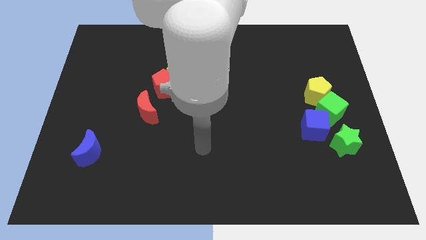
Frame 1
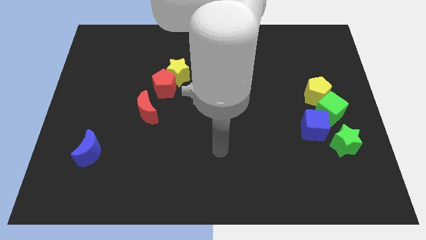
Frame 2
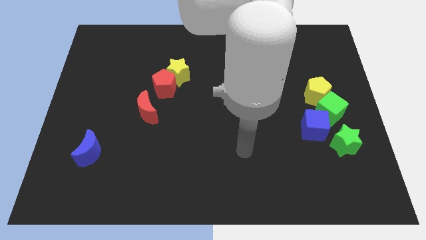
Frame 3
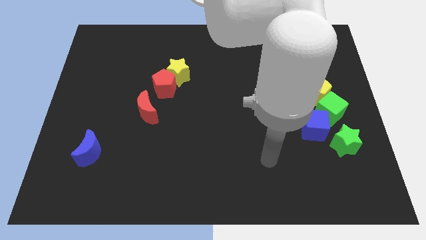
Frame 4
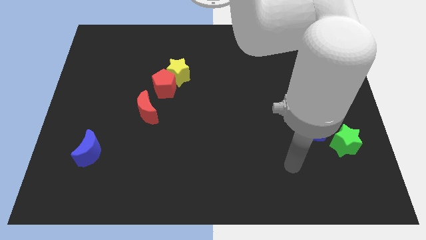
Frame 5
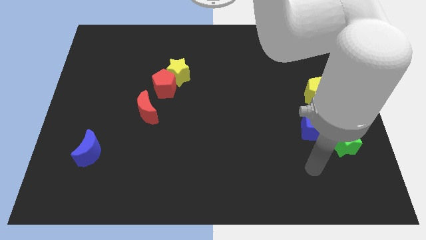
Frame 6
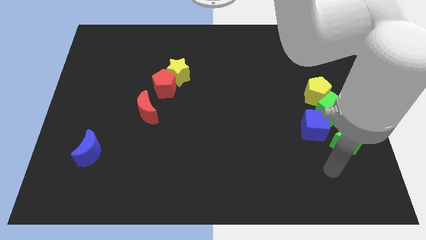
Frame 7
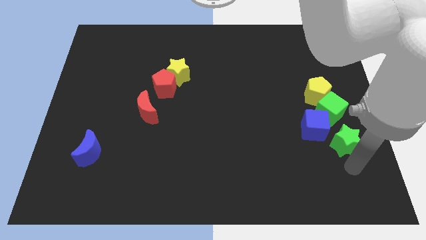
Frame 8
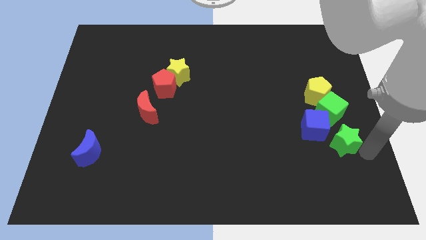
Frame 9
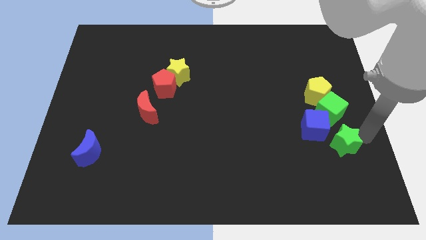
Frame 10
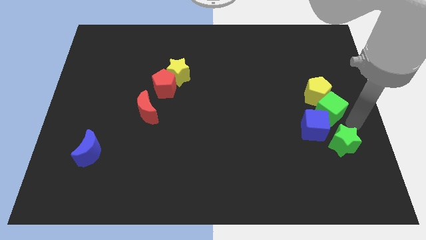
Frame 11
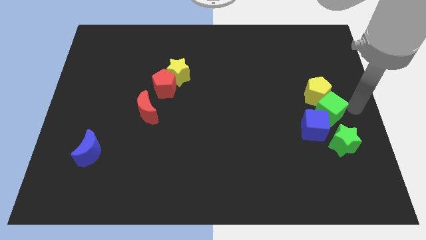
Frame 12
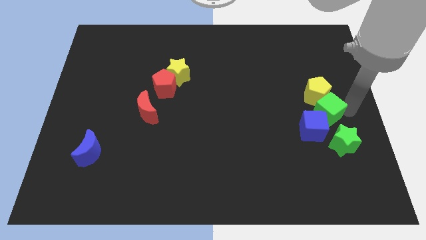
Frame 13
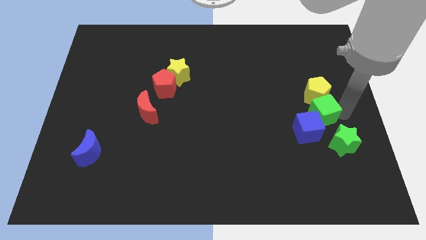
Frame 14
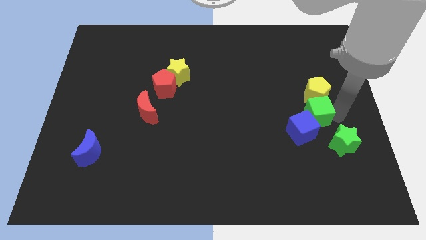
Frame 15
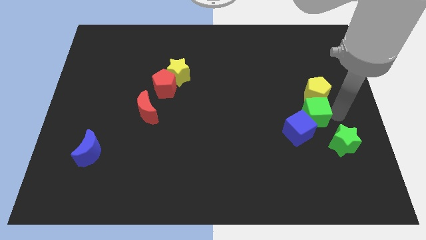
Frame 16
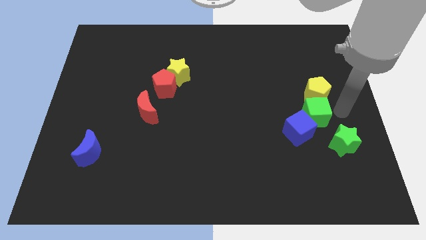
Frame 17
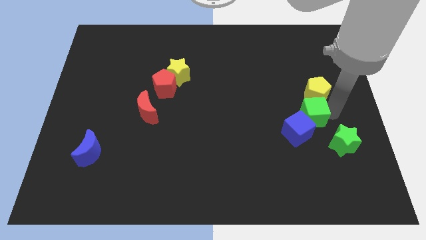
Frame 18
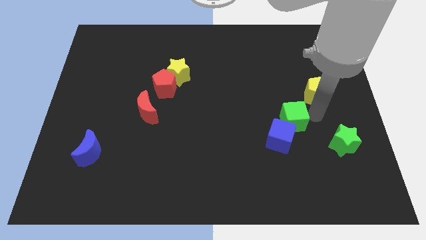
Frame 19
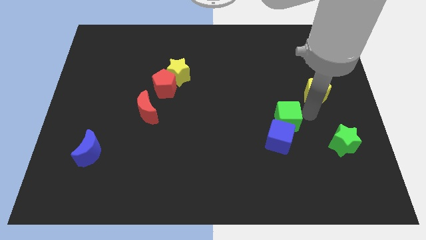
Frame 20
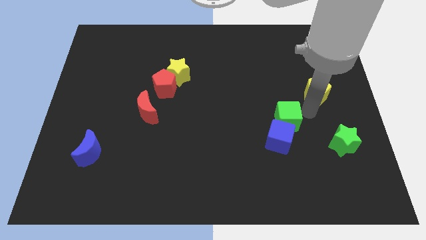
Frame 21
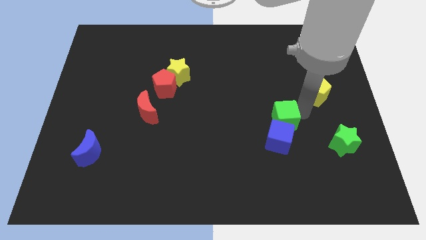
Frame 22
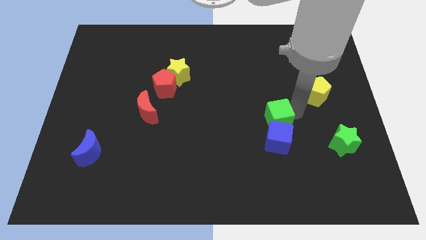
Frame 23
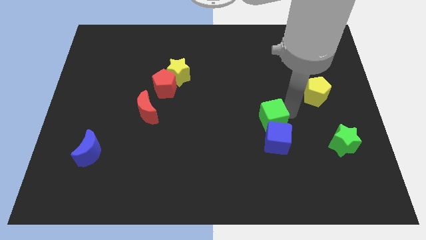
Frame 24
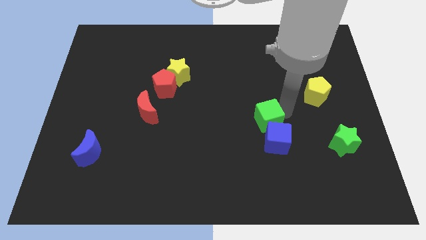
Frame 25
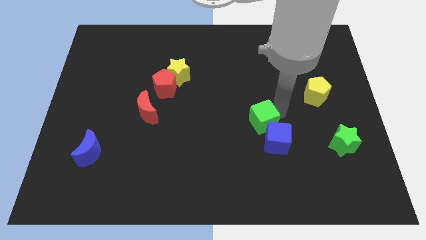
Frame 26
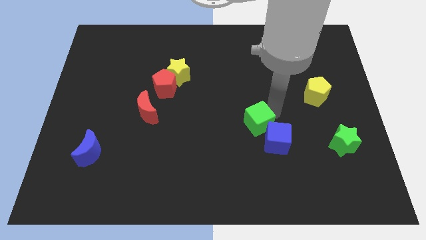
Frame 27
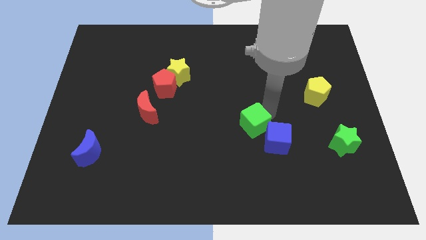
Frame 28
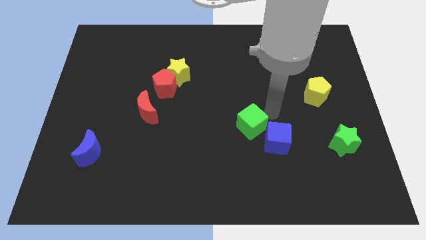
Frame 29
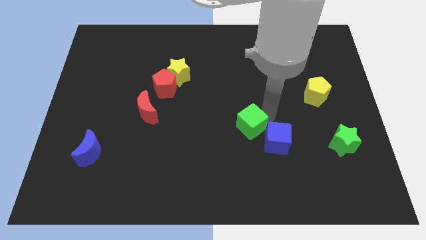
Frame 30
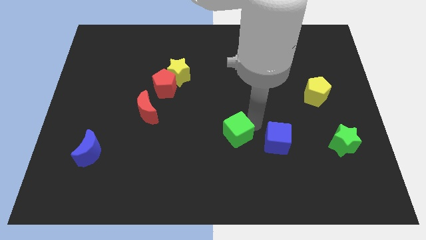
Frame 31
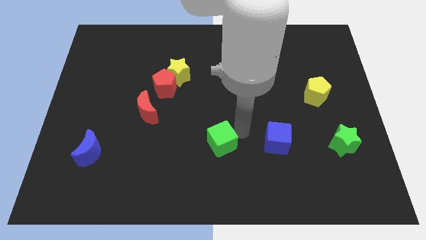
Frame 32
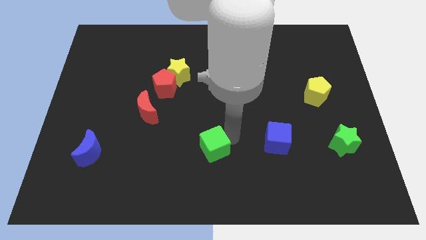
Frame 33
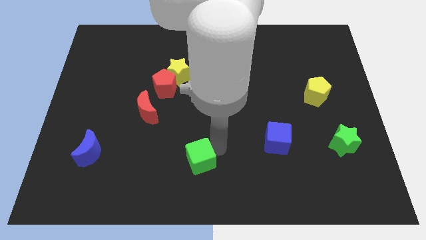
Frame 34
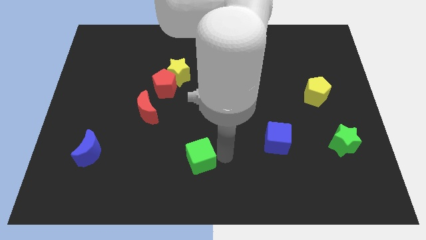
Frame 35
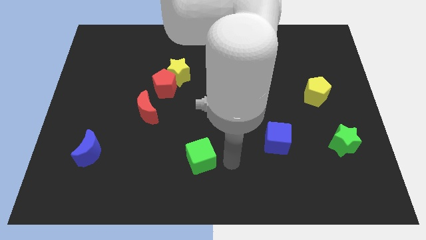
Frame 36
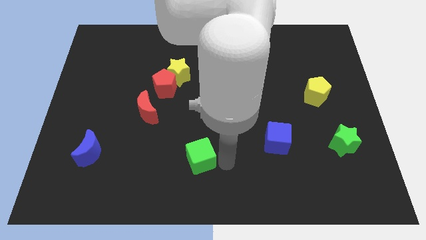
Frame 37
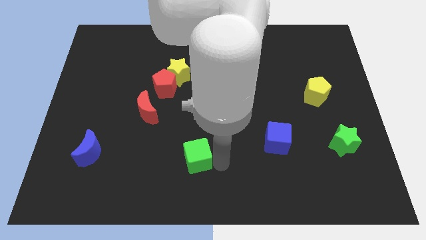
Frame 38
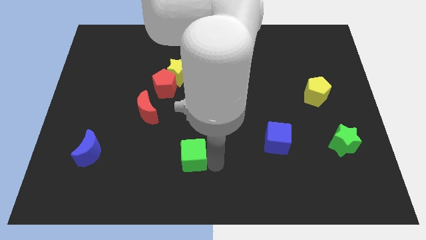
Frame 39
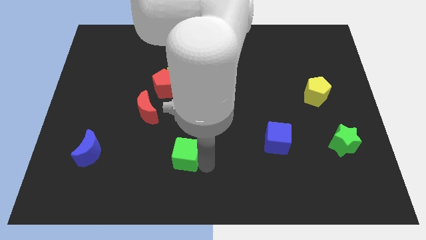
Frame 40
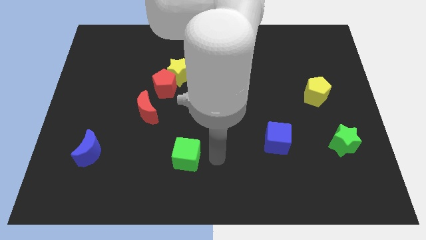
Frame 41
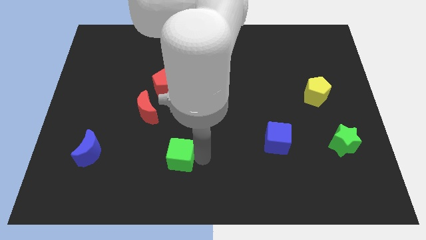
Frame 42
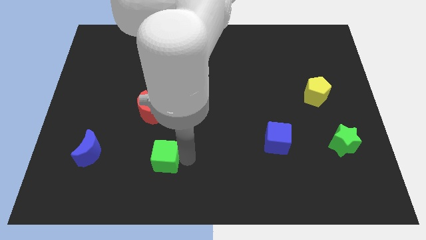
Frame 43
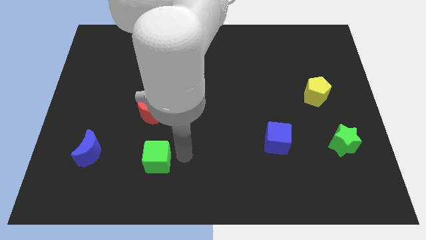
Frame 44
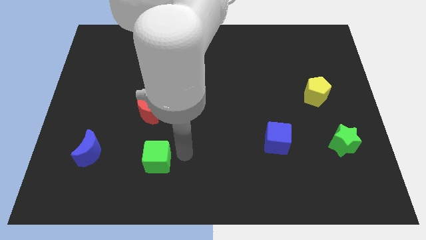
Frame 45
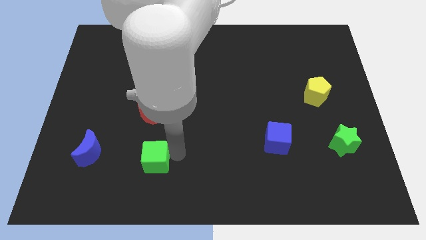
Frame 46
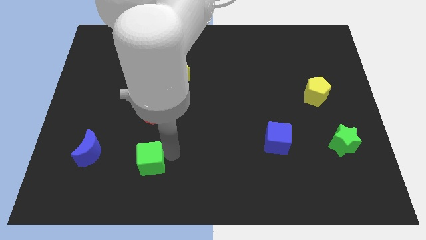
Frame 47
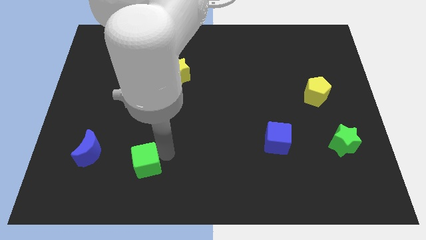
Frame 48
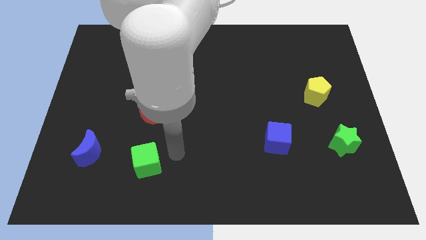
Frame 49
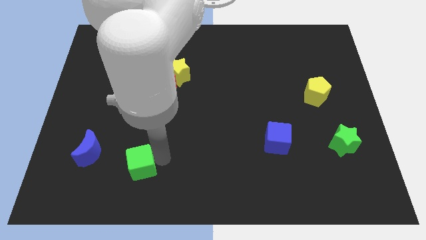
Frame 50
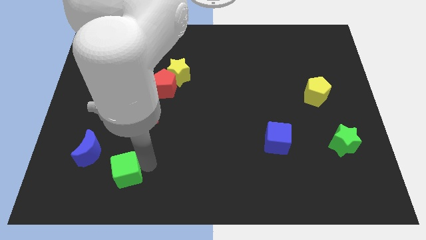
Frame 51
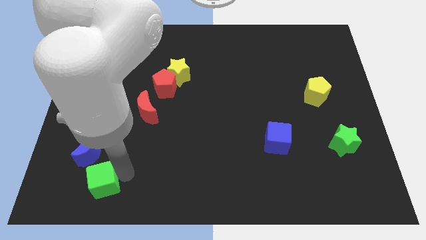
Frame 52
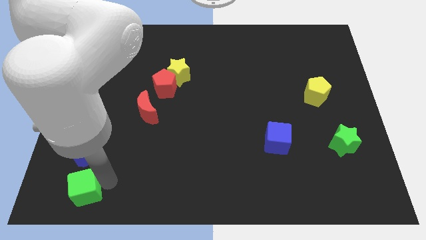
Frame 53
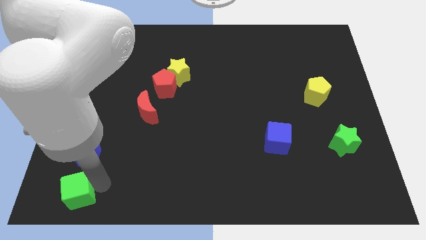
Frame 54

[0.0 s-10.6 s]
put the green cube to the bottom left

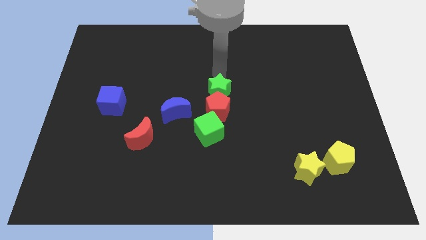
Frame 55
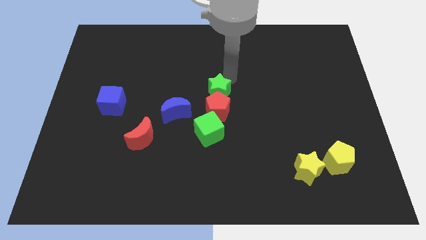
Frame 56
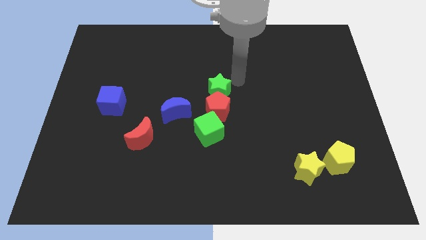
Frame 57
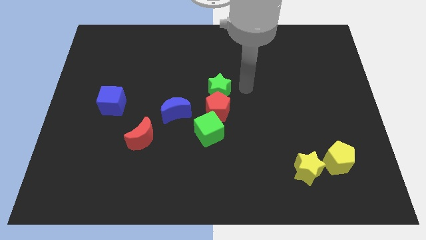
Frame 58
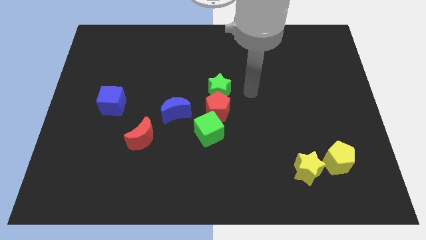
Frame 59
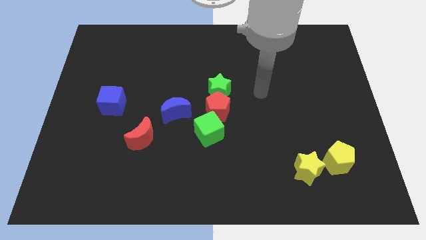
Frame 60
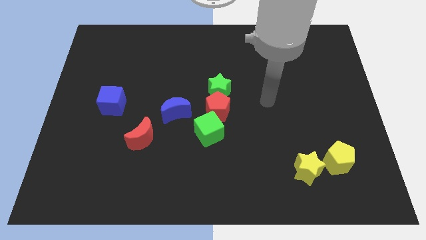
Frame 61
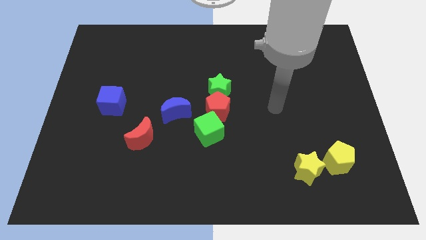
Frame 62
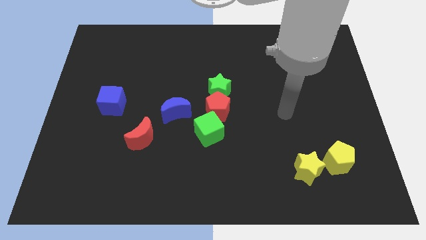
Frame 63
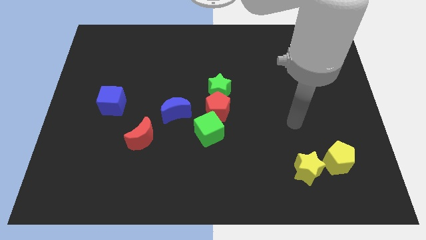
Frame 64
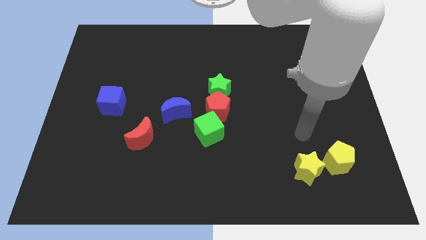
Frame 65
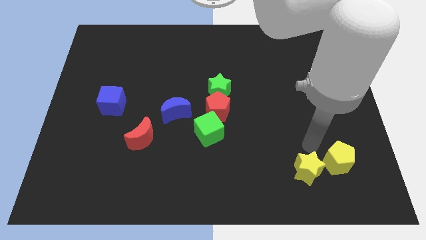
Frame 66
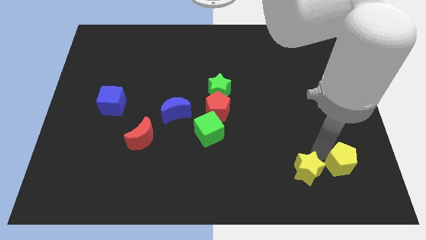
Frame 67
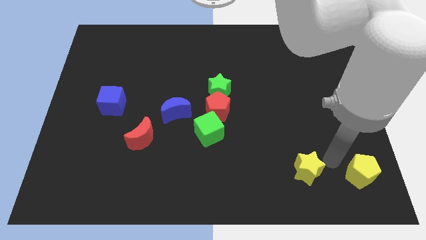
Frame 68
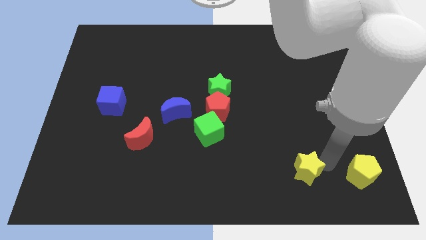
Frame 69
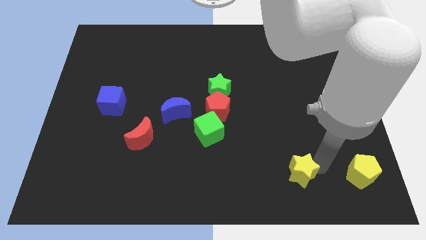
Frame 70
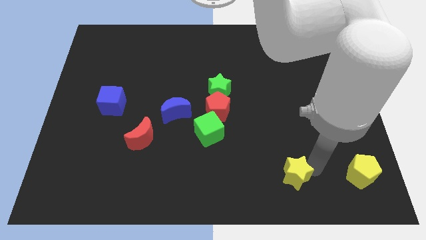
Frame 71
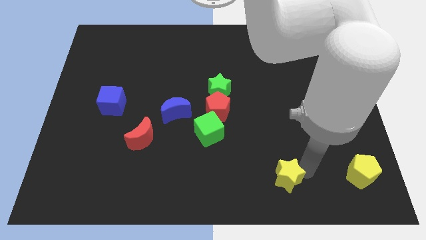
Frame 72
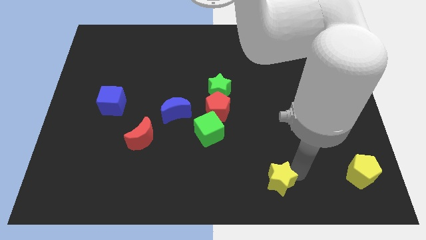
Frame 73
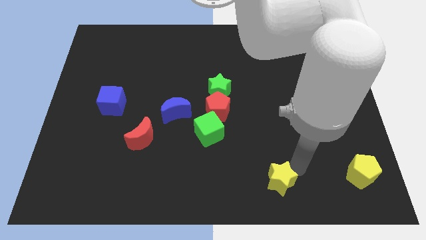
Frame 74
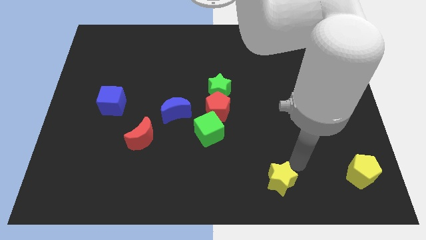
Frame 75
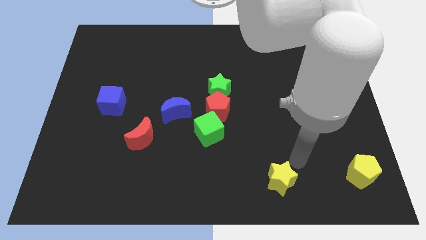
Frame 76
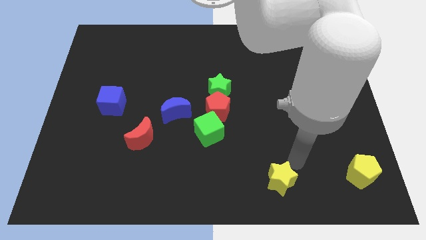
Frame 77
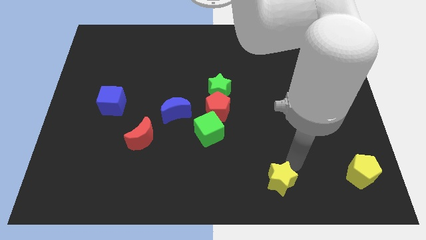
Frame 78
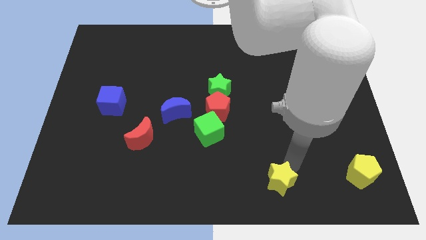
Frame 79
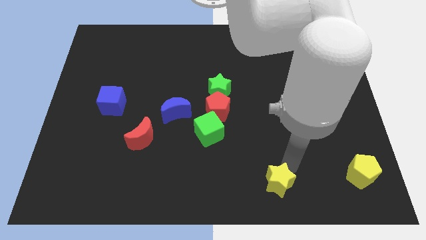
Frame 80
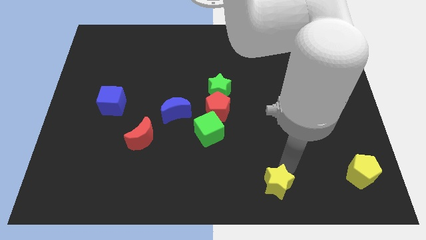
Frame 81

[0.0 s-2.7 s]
move the yellow star to the bottom side
